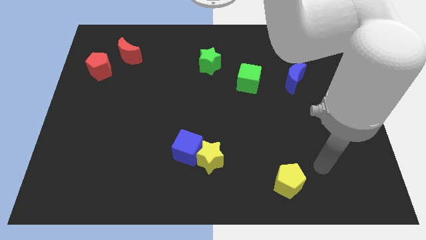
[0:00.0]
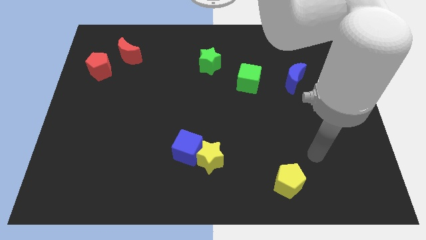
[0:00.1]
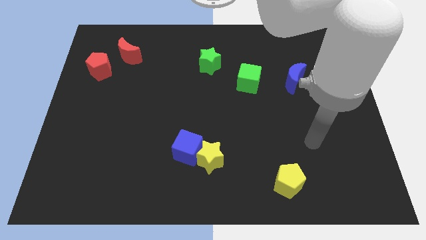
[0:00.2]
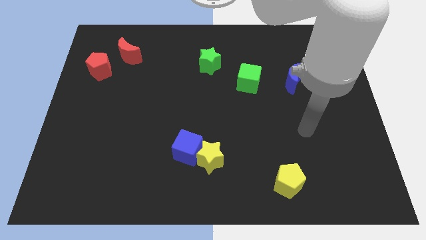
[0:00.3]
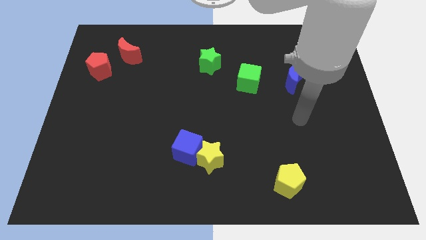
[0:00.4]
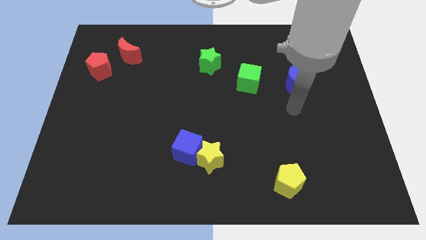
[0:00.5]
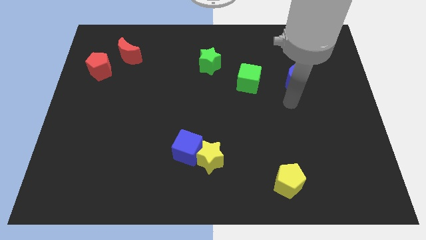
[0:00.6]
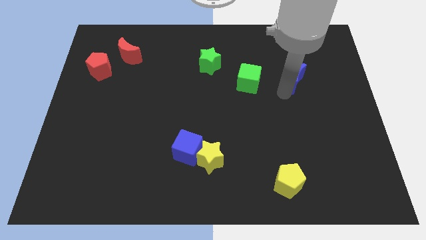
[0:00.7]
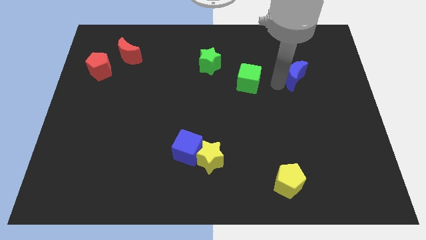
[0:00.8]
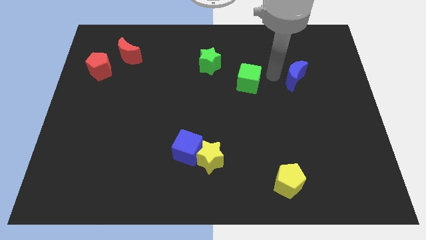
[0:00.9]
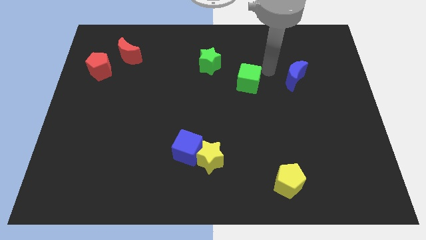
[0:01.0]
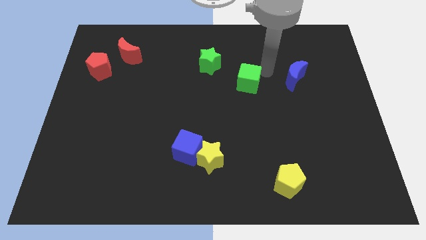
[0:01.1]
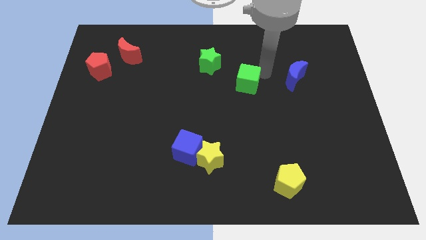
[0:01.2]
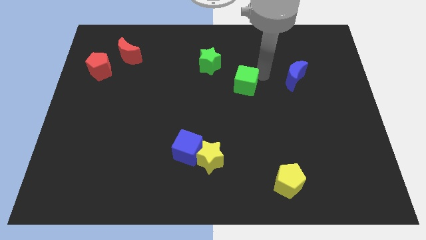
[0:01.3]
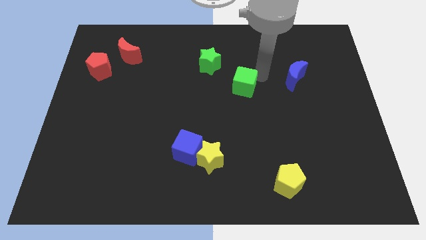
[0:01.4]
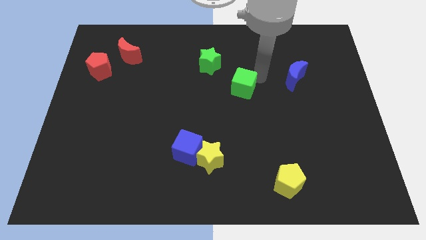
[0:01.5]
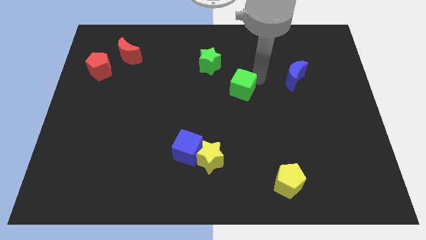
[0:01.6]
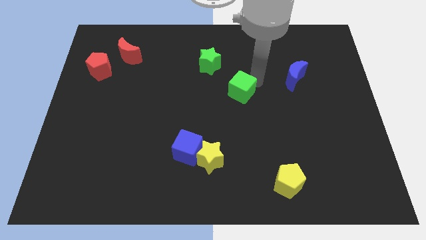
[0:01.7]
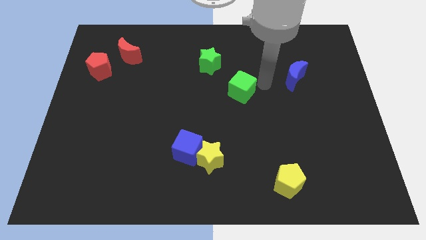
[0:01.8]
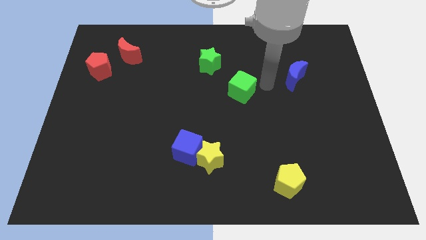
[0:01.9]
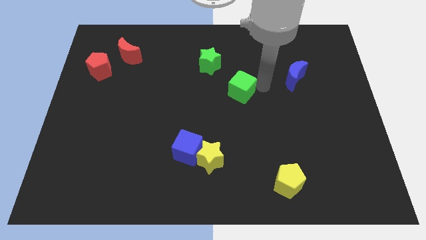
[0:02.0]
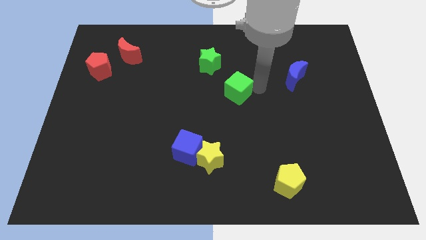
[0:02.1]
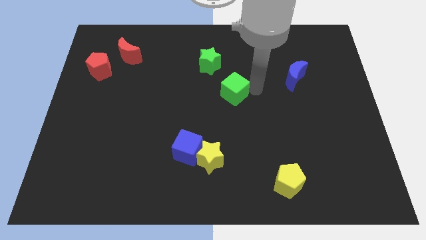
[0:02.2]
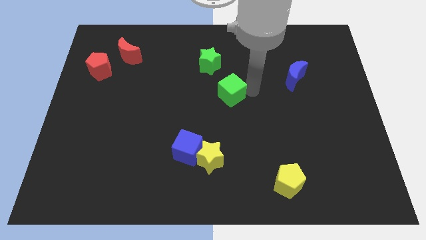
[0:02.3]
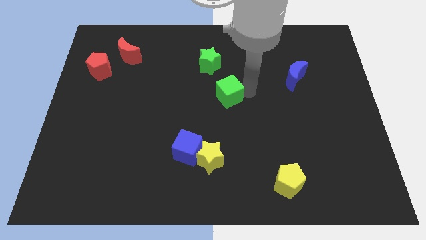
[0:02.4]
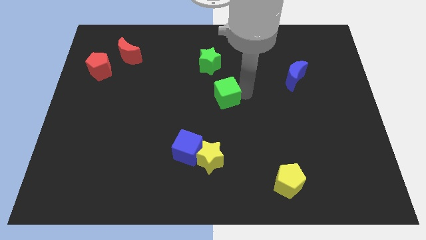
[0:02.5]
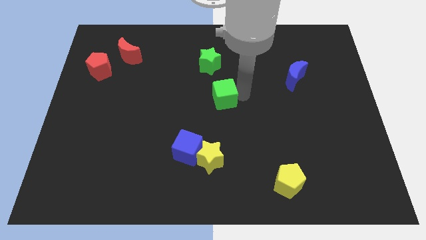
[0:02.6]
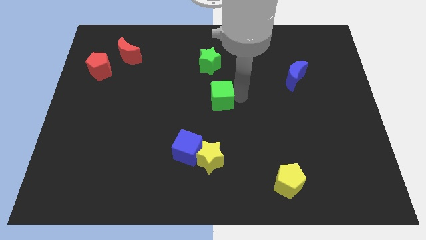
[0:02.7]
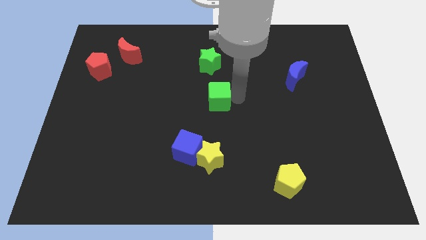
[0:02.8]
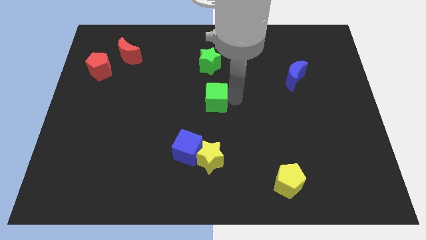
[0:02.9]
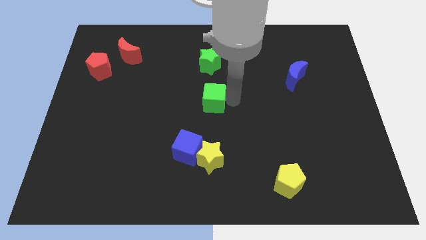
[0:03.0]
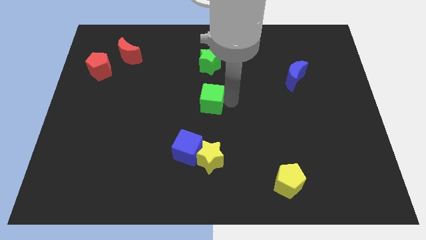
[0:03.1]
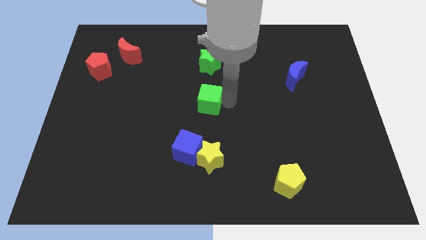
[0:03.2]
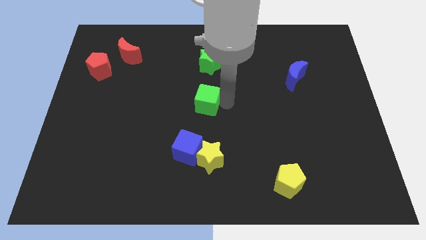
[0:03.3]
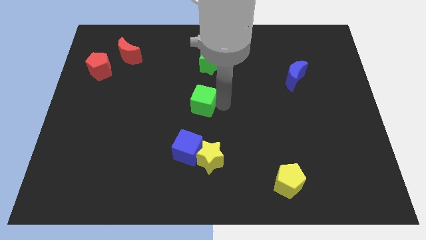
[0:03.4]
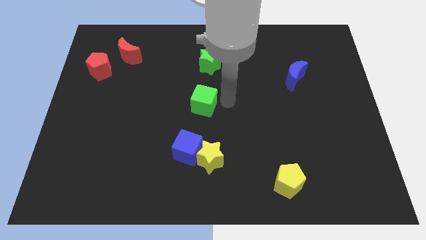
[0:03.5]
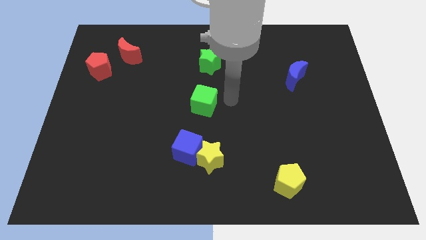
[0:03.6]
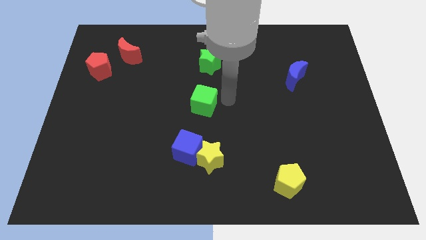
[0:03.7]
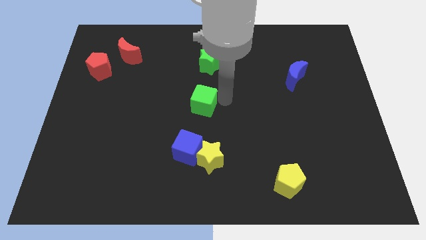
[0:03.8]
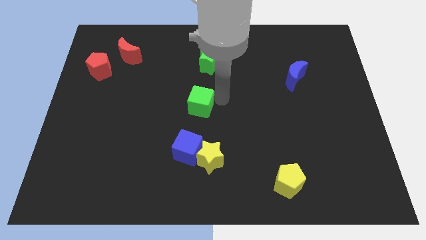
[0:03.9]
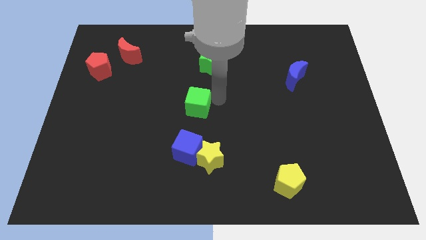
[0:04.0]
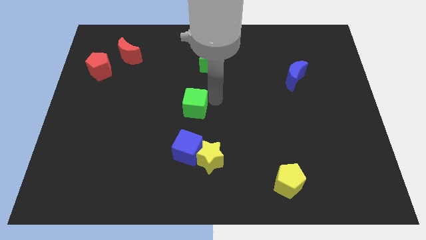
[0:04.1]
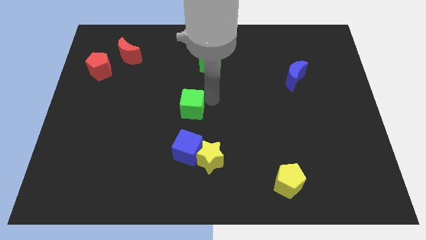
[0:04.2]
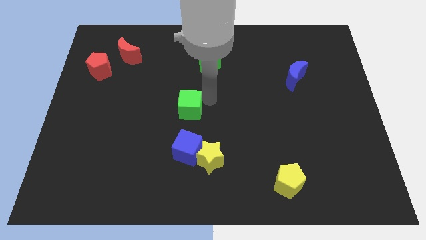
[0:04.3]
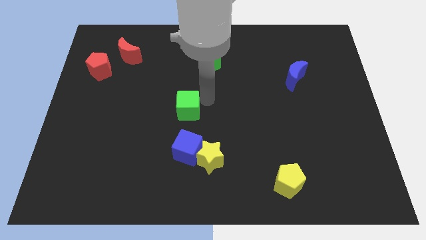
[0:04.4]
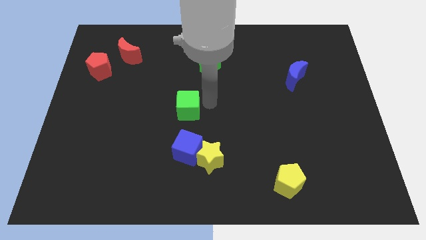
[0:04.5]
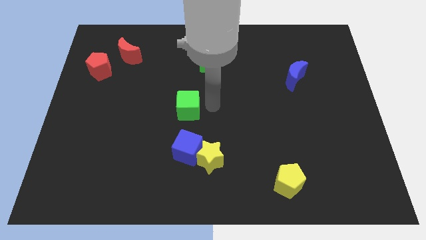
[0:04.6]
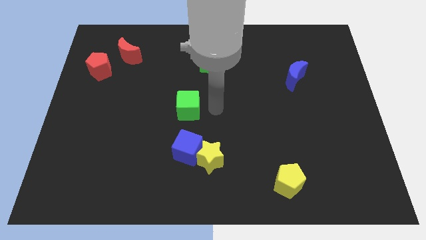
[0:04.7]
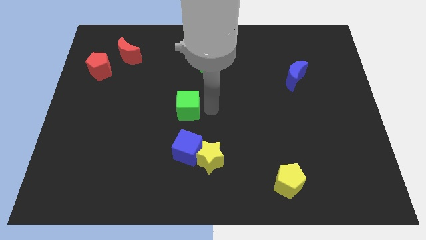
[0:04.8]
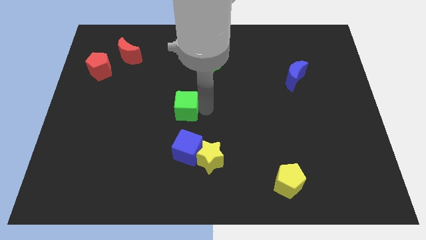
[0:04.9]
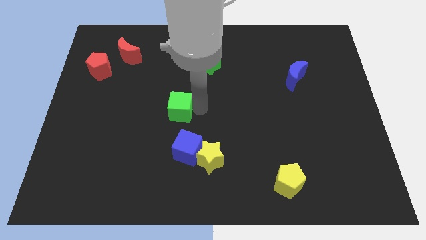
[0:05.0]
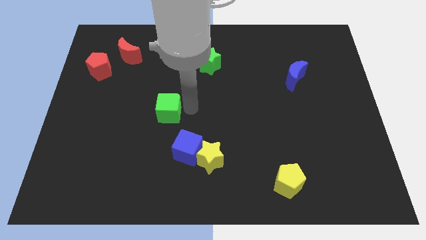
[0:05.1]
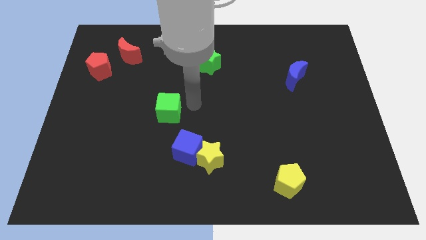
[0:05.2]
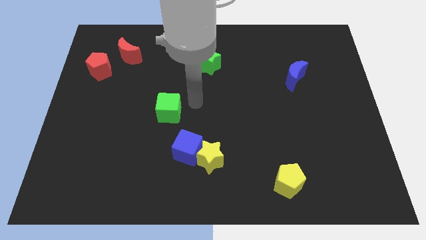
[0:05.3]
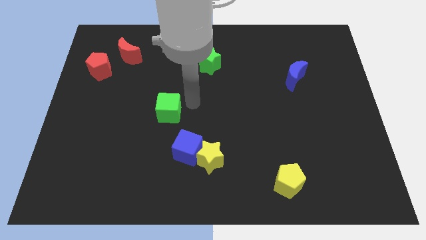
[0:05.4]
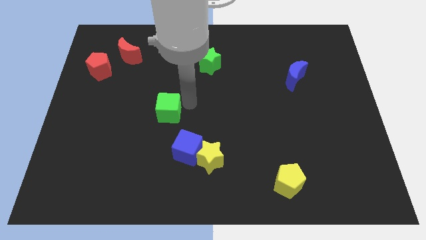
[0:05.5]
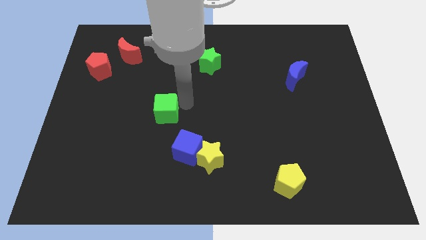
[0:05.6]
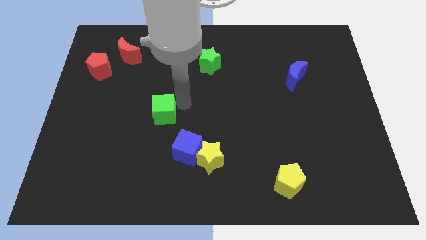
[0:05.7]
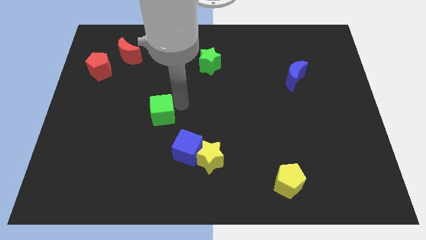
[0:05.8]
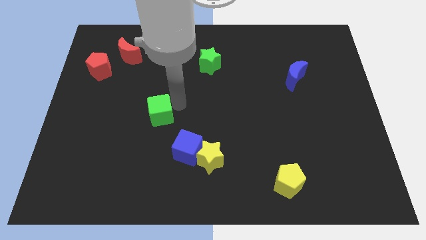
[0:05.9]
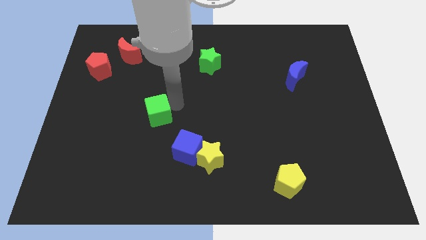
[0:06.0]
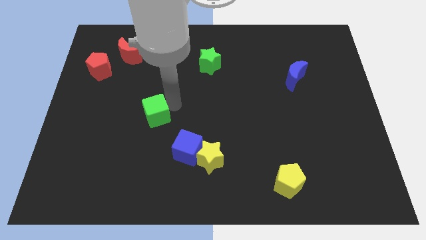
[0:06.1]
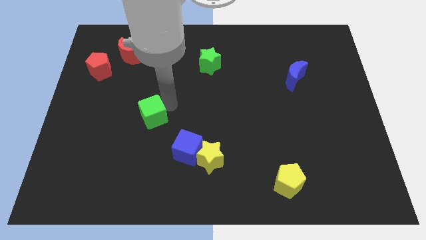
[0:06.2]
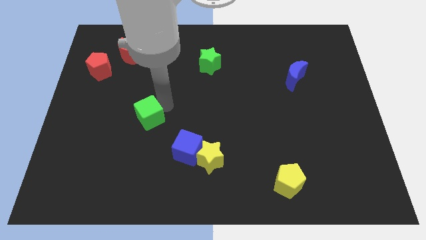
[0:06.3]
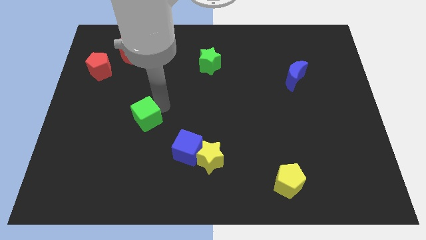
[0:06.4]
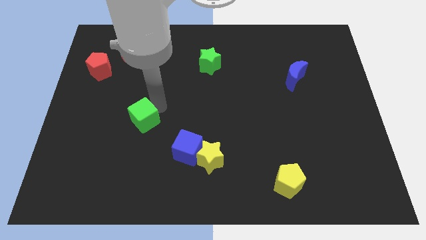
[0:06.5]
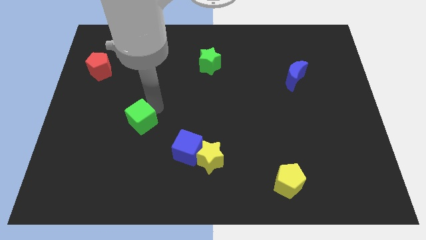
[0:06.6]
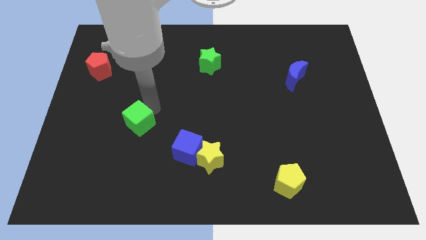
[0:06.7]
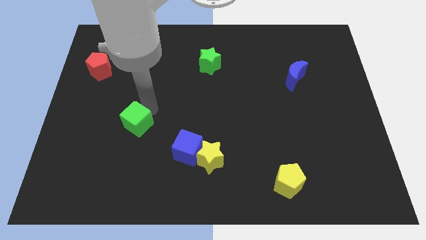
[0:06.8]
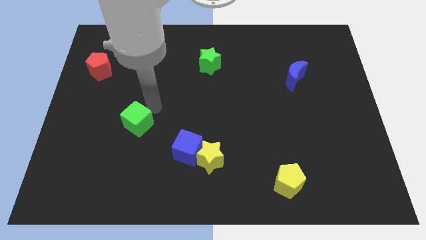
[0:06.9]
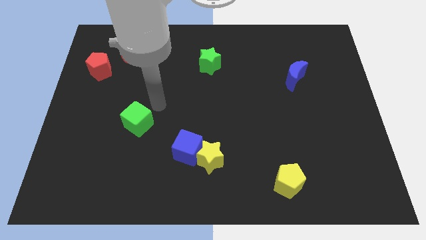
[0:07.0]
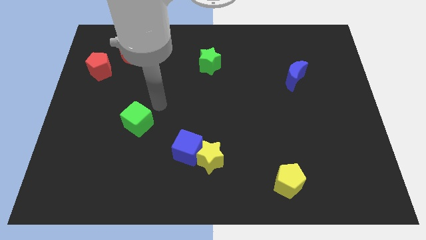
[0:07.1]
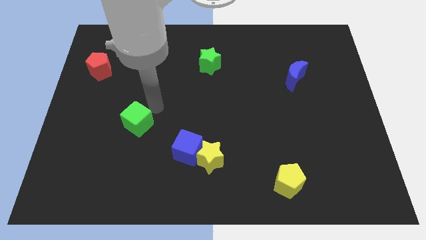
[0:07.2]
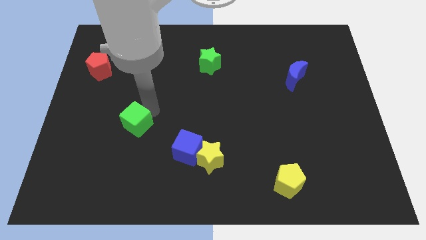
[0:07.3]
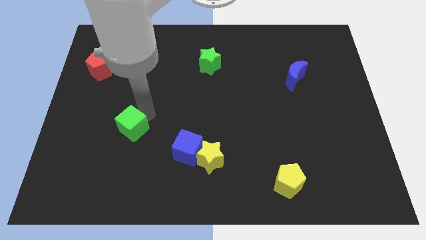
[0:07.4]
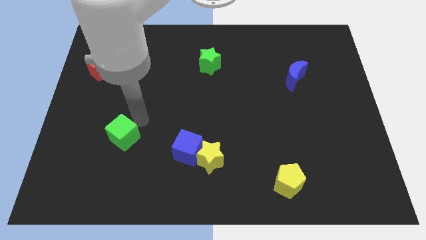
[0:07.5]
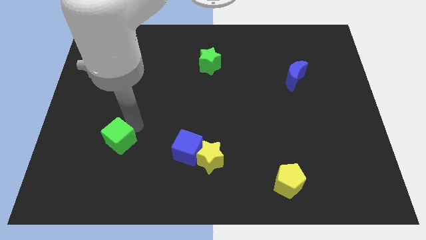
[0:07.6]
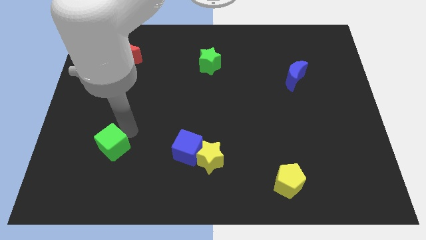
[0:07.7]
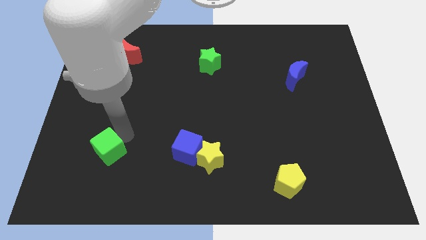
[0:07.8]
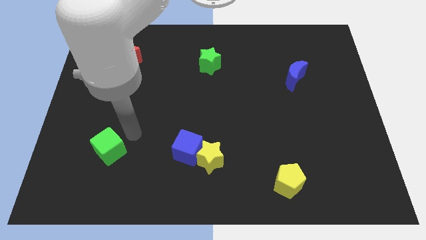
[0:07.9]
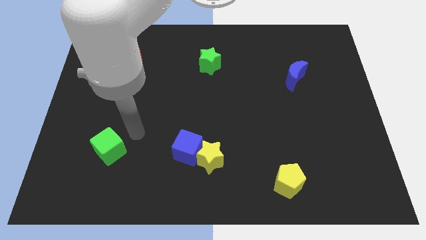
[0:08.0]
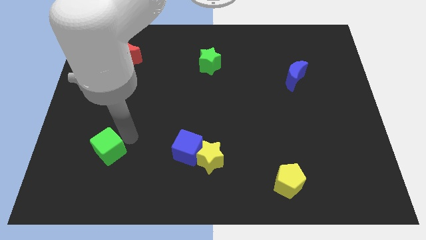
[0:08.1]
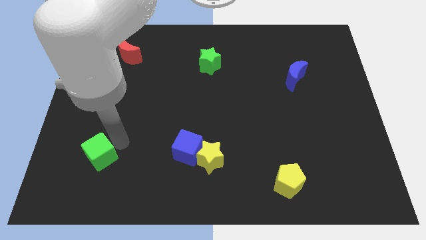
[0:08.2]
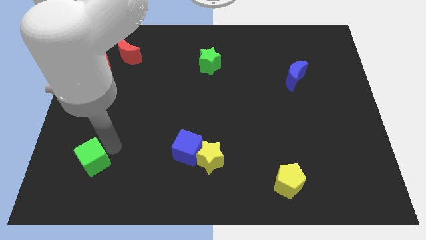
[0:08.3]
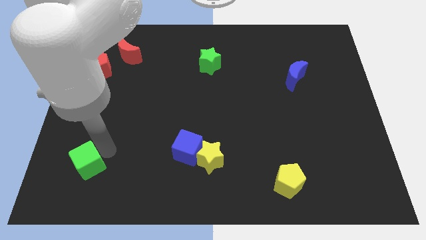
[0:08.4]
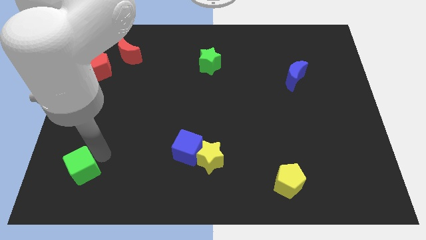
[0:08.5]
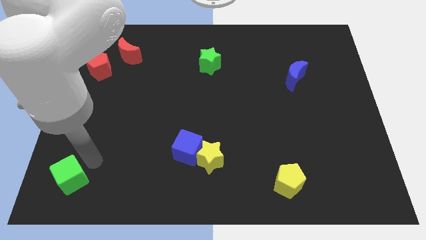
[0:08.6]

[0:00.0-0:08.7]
slide the green cube to the bottom left of the board
